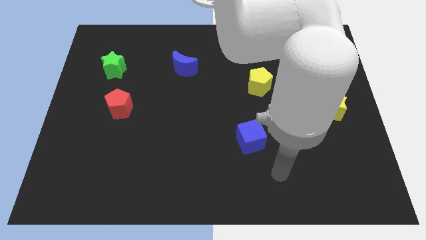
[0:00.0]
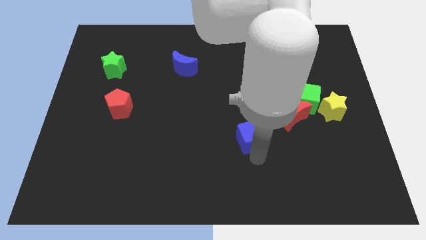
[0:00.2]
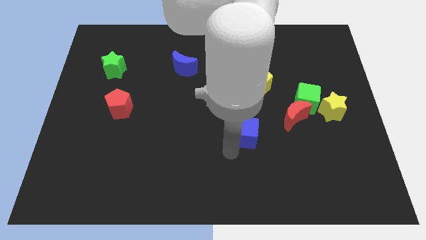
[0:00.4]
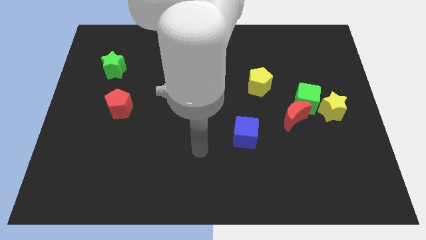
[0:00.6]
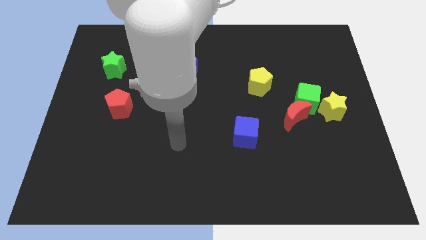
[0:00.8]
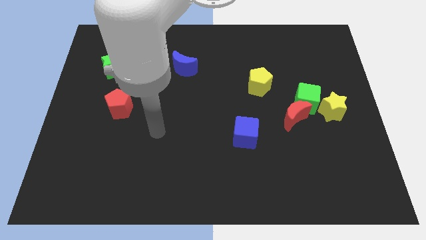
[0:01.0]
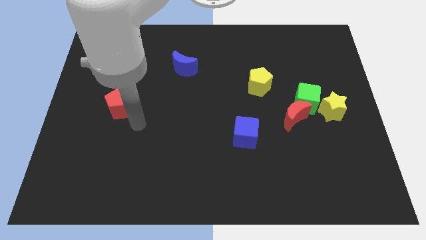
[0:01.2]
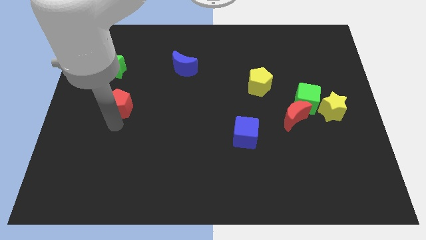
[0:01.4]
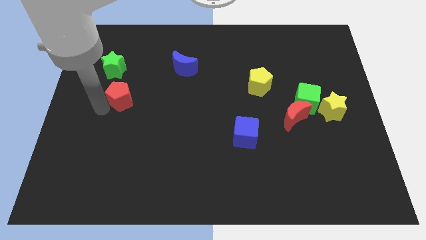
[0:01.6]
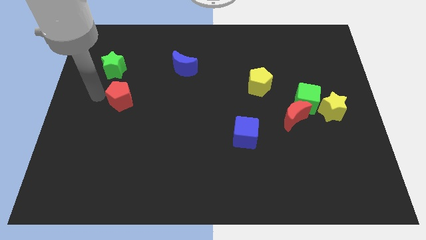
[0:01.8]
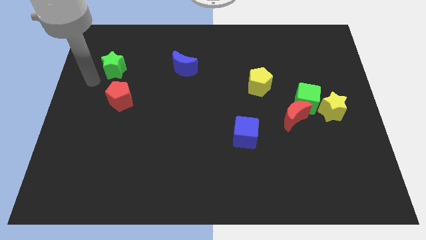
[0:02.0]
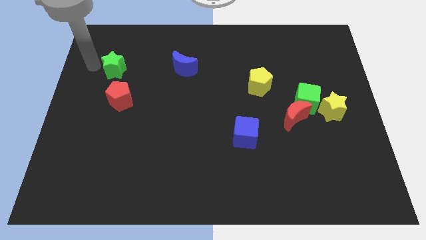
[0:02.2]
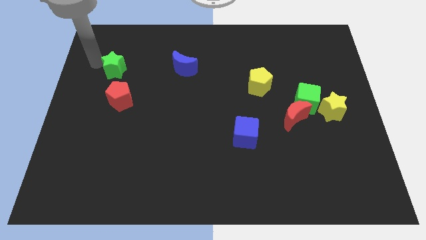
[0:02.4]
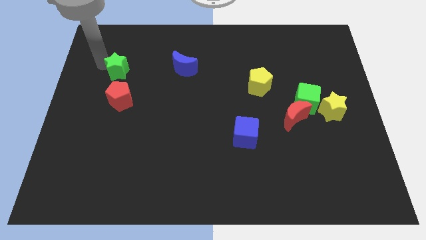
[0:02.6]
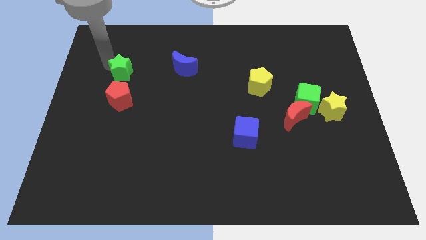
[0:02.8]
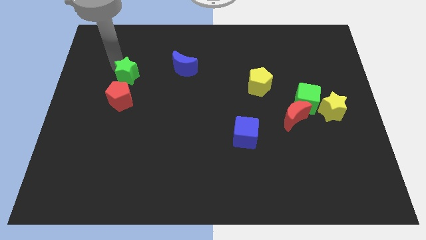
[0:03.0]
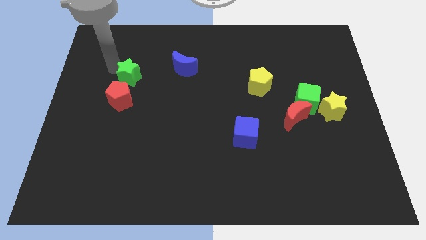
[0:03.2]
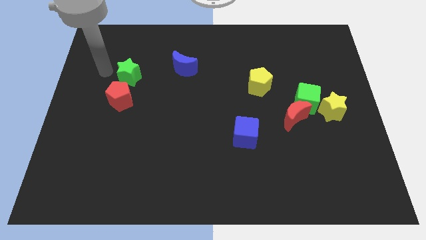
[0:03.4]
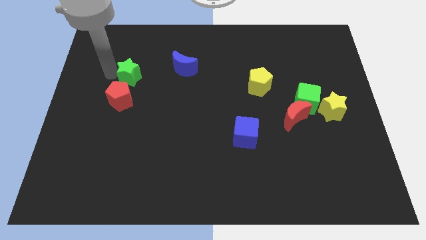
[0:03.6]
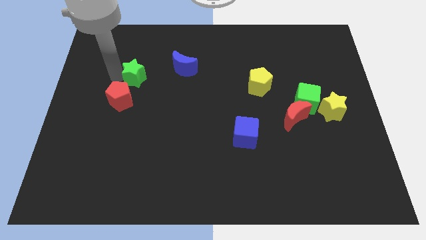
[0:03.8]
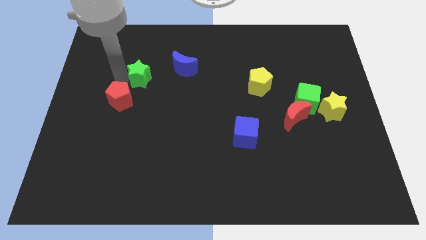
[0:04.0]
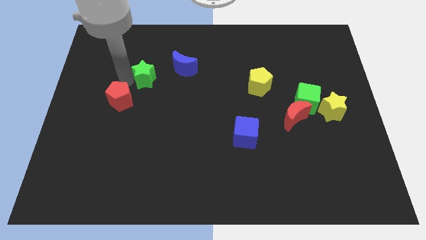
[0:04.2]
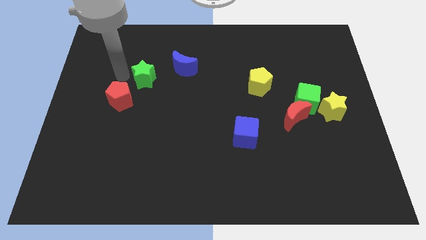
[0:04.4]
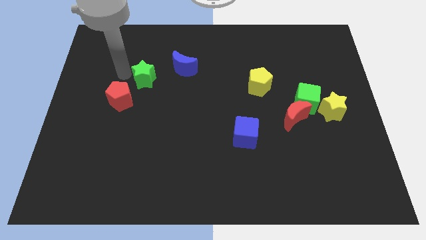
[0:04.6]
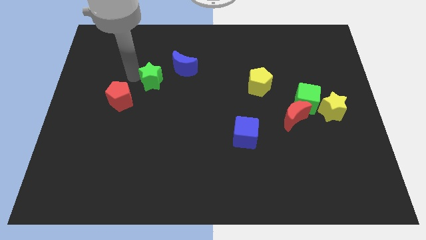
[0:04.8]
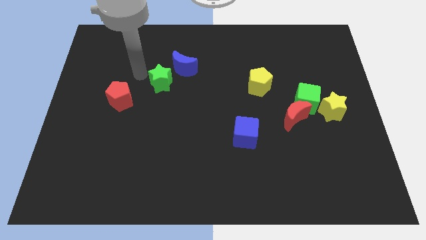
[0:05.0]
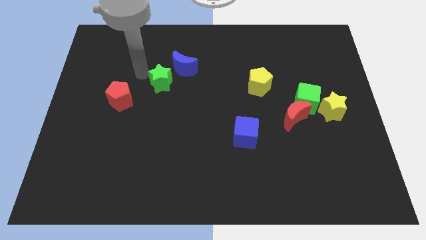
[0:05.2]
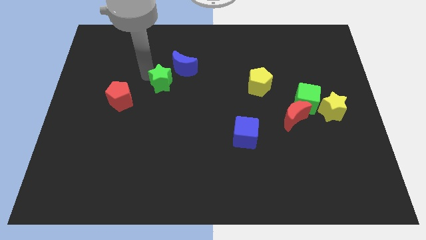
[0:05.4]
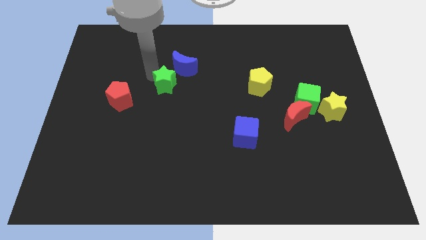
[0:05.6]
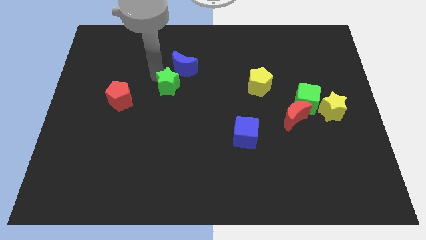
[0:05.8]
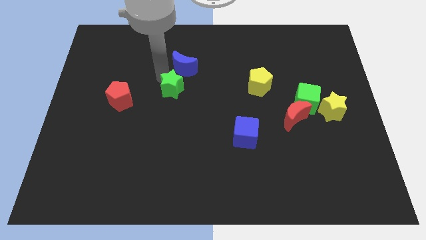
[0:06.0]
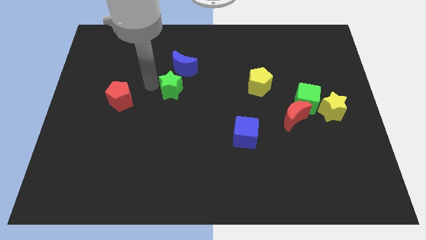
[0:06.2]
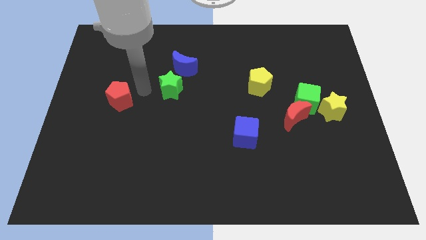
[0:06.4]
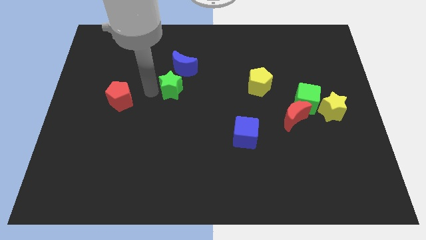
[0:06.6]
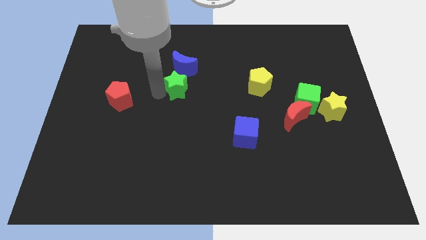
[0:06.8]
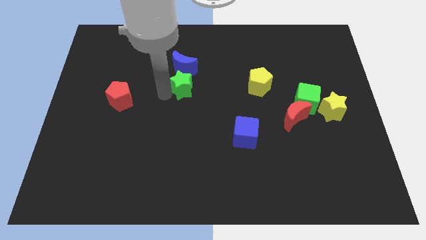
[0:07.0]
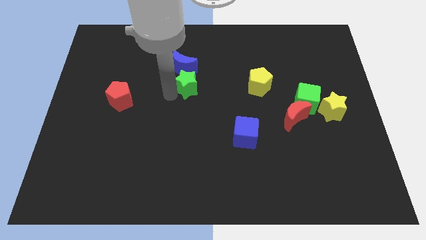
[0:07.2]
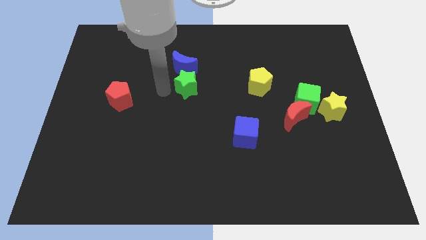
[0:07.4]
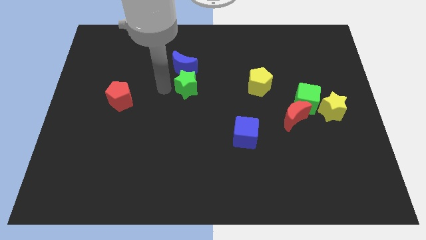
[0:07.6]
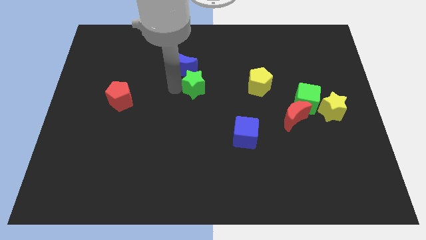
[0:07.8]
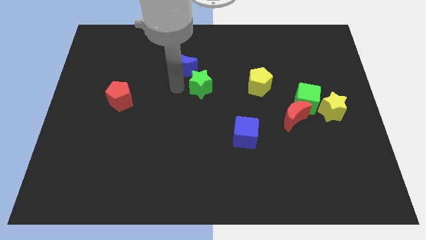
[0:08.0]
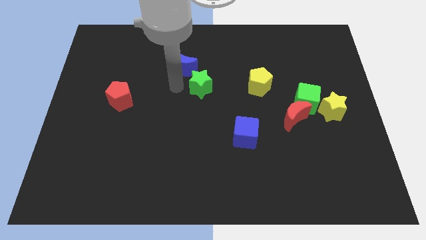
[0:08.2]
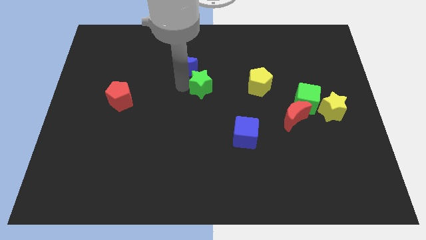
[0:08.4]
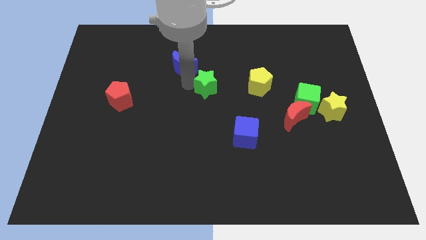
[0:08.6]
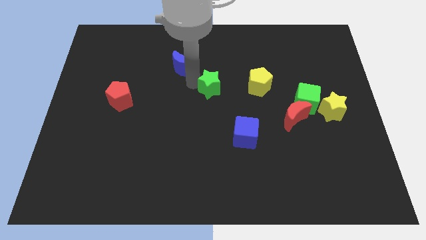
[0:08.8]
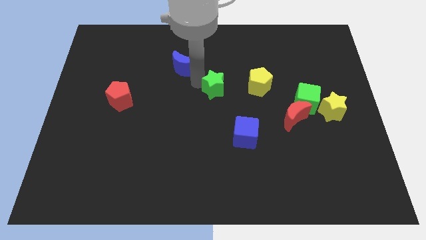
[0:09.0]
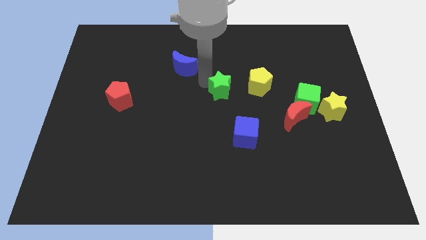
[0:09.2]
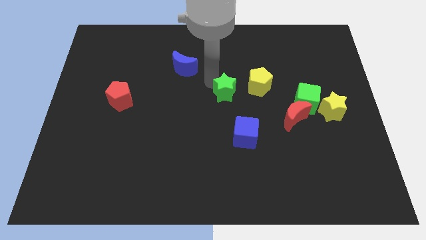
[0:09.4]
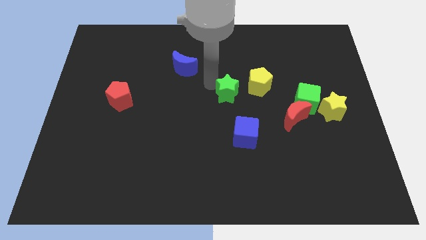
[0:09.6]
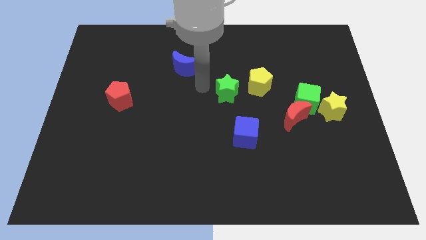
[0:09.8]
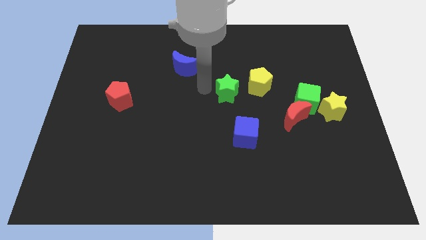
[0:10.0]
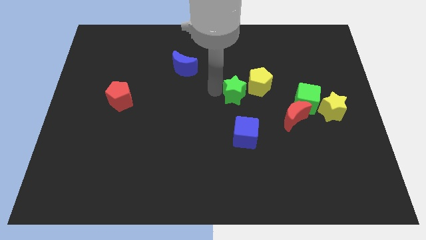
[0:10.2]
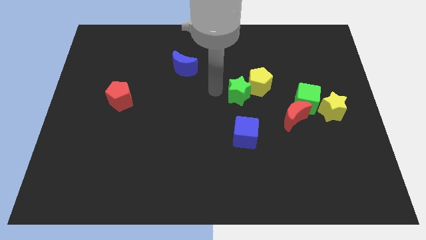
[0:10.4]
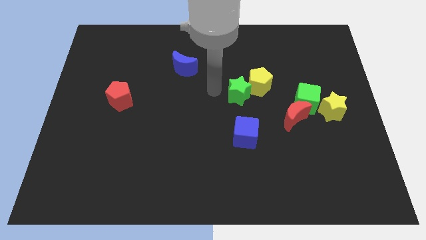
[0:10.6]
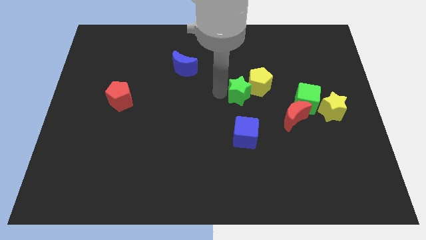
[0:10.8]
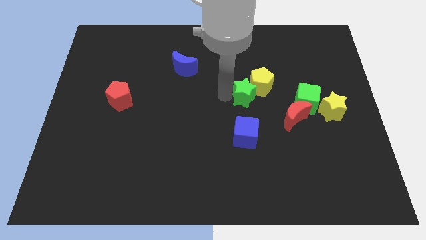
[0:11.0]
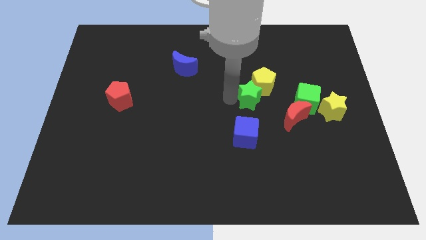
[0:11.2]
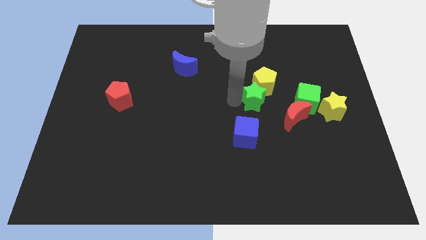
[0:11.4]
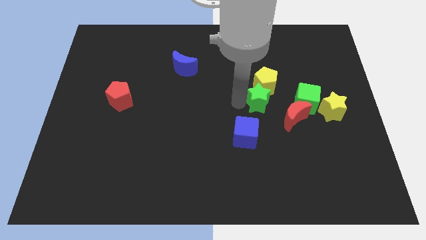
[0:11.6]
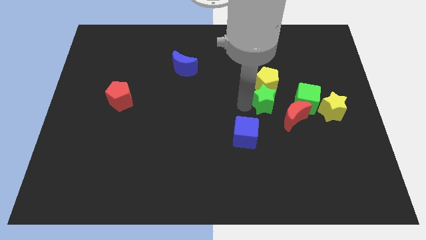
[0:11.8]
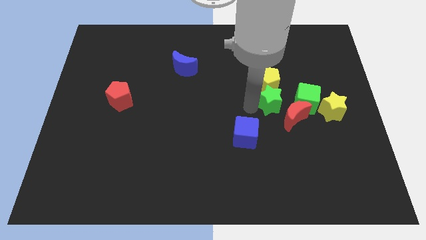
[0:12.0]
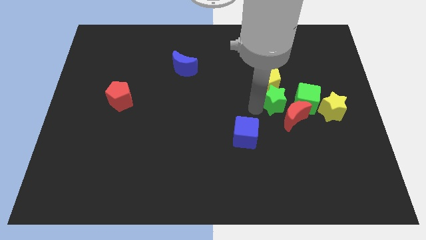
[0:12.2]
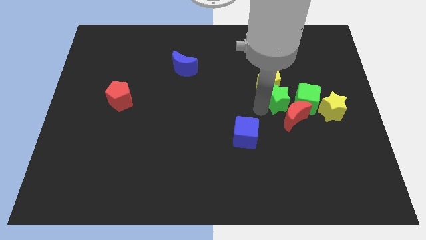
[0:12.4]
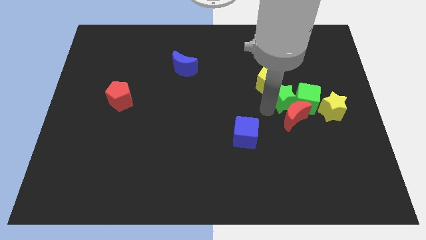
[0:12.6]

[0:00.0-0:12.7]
push the green star to the green cube

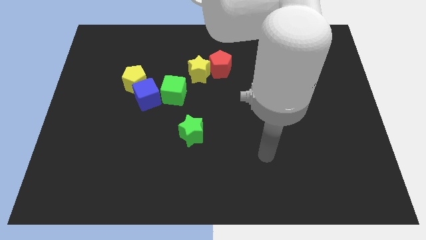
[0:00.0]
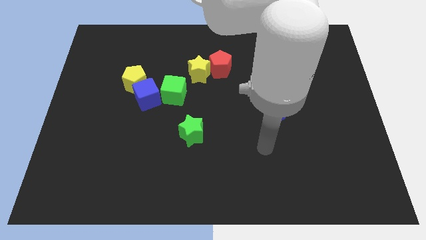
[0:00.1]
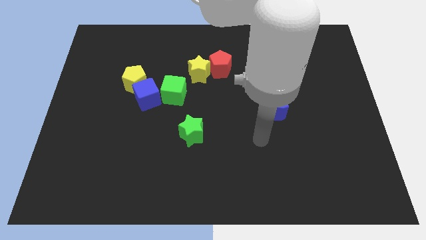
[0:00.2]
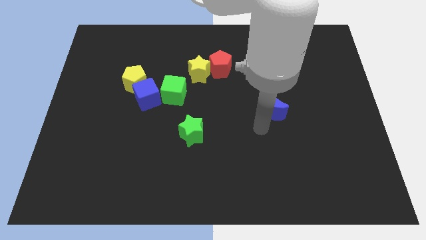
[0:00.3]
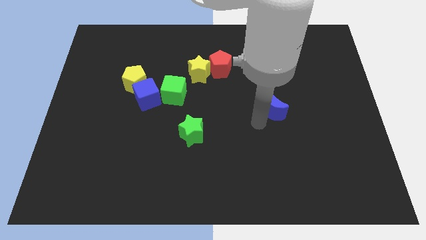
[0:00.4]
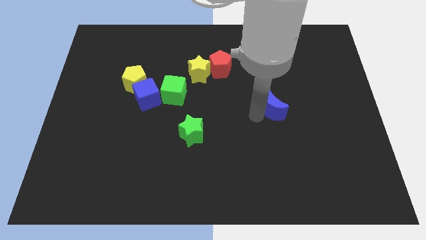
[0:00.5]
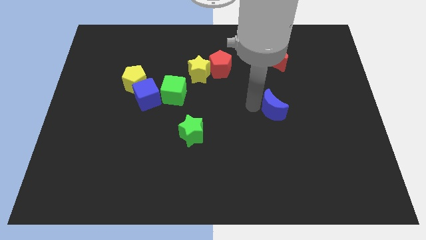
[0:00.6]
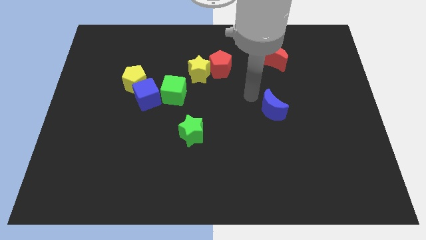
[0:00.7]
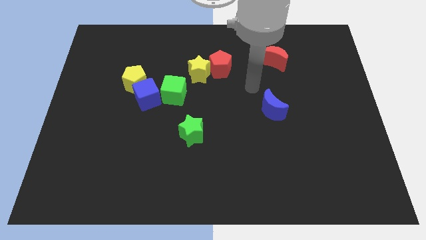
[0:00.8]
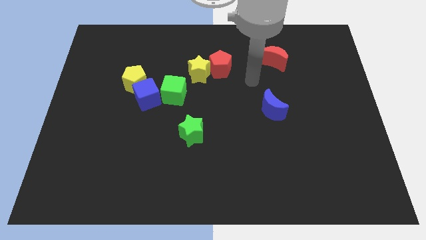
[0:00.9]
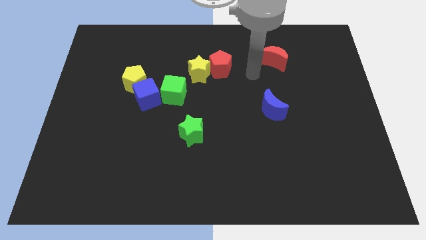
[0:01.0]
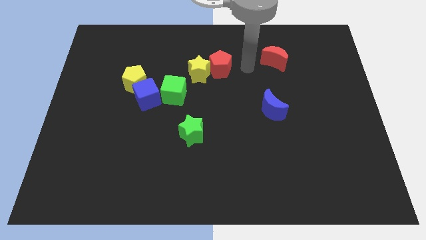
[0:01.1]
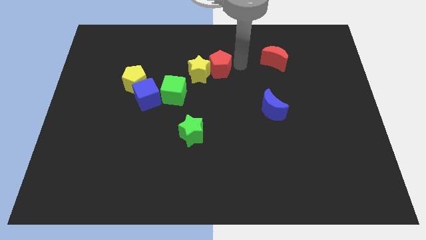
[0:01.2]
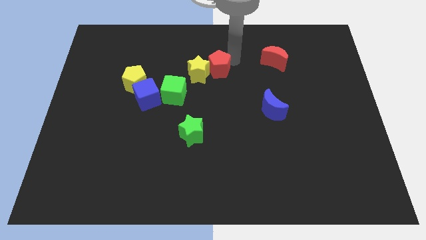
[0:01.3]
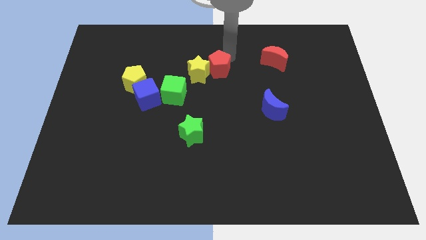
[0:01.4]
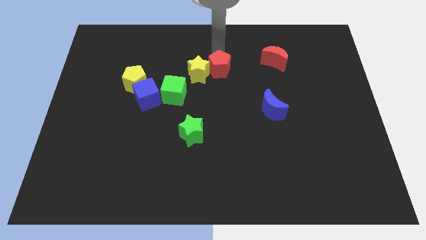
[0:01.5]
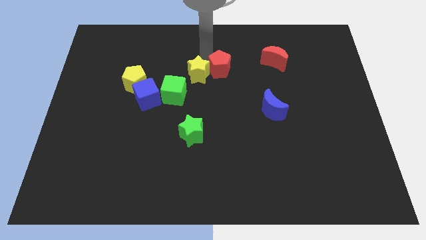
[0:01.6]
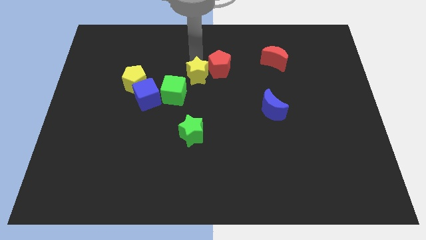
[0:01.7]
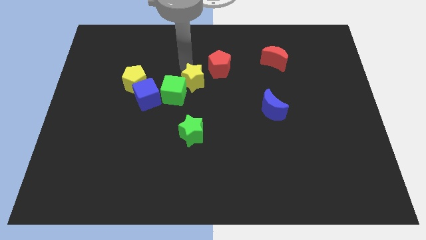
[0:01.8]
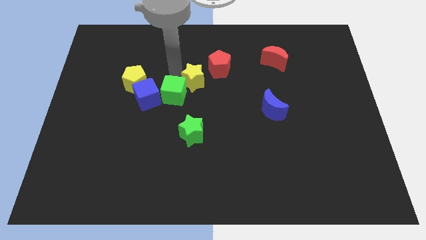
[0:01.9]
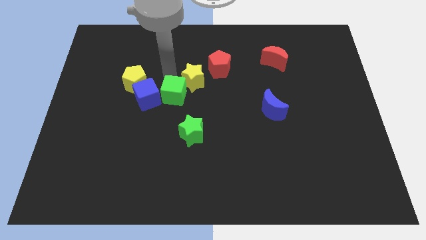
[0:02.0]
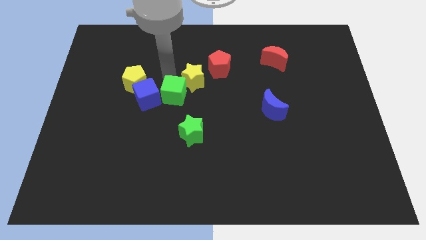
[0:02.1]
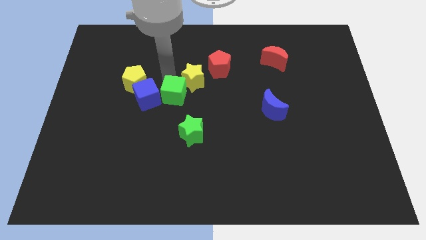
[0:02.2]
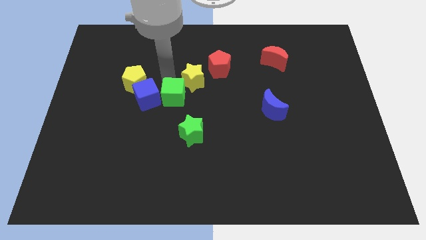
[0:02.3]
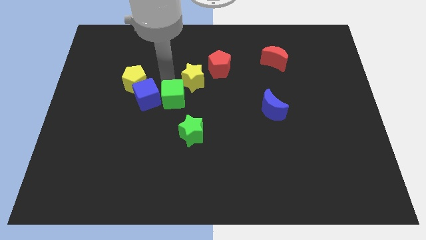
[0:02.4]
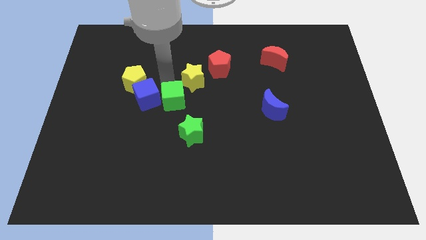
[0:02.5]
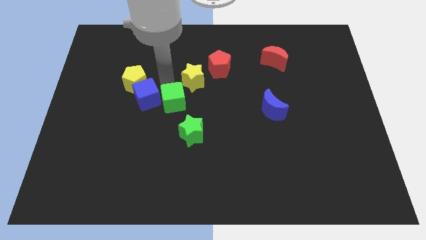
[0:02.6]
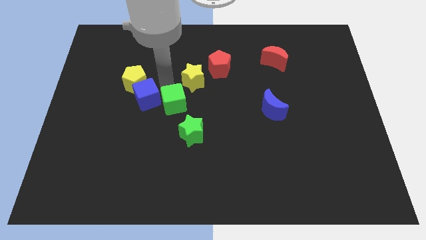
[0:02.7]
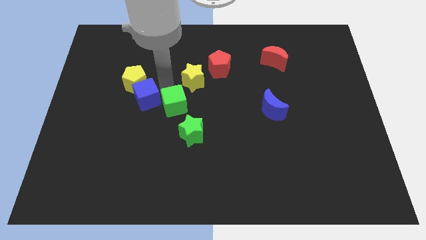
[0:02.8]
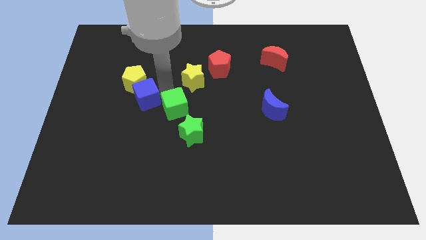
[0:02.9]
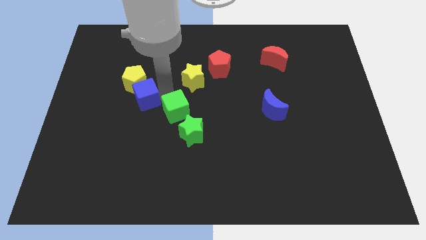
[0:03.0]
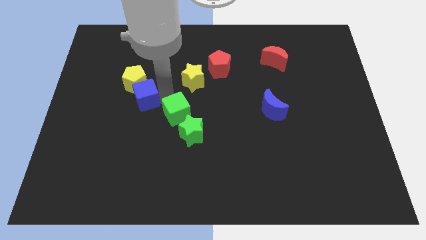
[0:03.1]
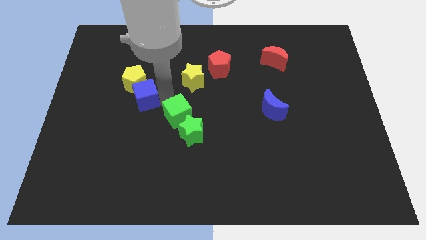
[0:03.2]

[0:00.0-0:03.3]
move the green cube to the green star
